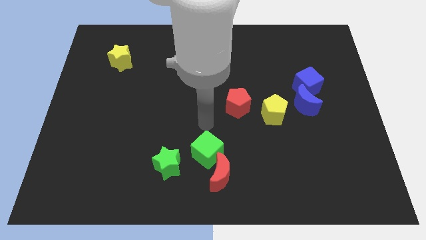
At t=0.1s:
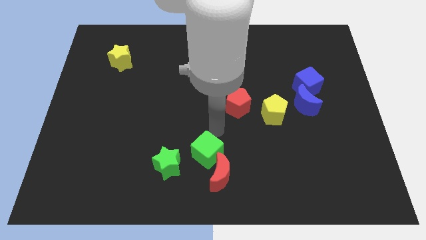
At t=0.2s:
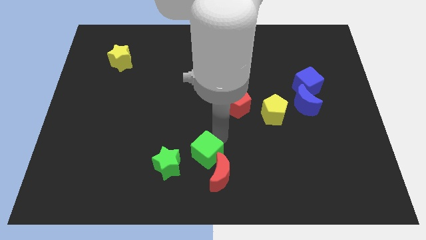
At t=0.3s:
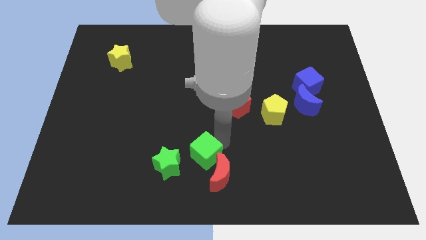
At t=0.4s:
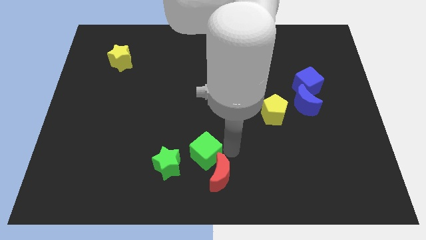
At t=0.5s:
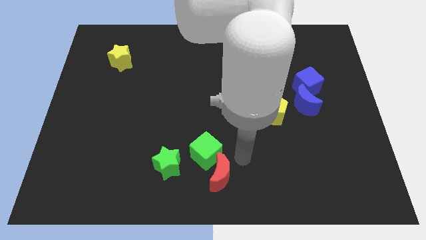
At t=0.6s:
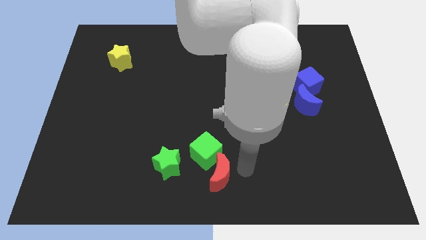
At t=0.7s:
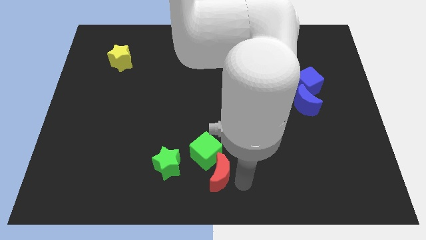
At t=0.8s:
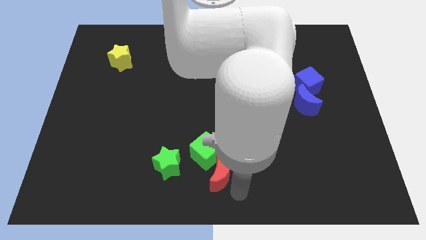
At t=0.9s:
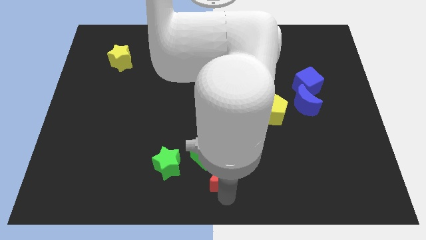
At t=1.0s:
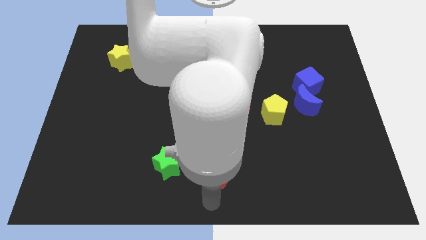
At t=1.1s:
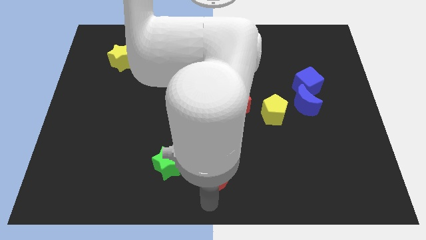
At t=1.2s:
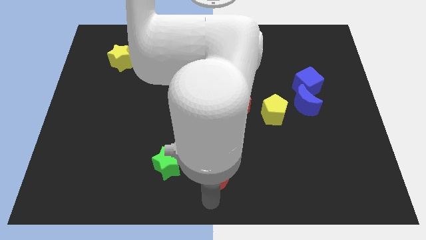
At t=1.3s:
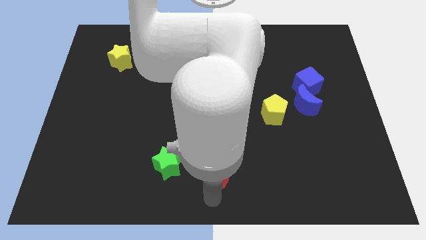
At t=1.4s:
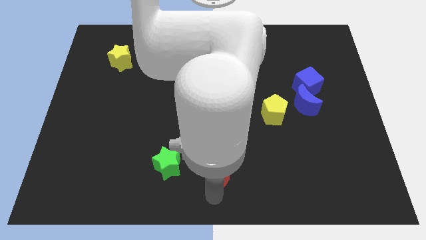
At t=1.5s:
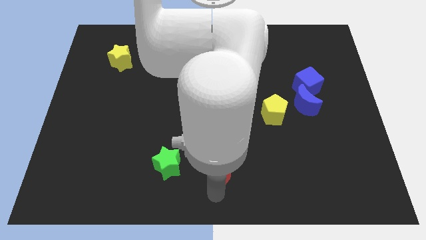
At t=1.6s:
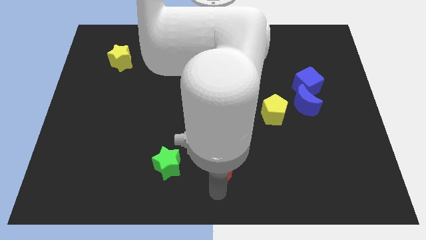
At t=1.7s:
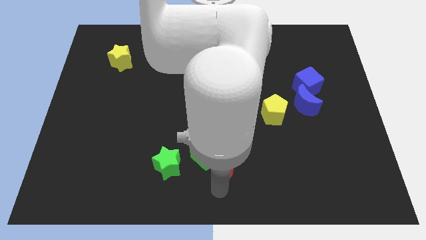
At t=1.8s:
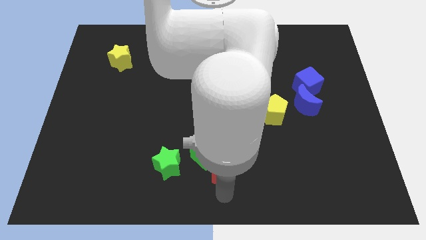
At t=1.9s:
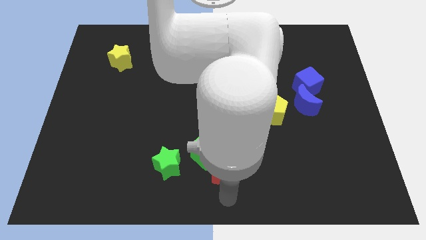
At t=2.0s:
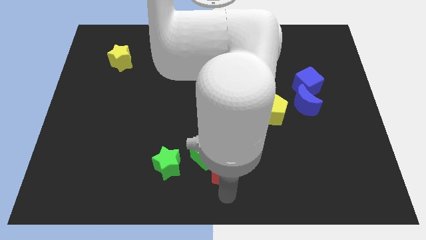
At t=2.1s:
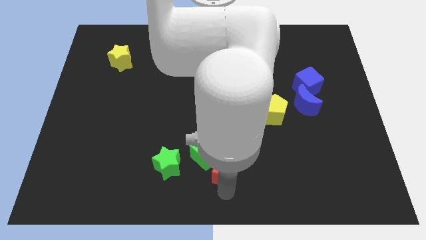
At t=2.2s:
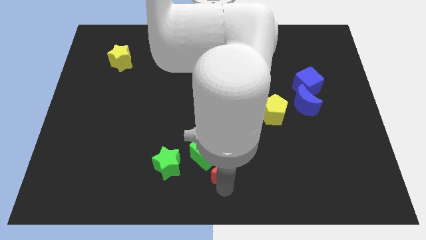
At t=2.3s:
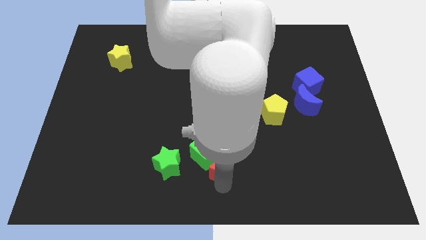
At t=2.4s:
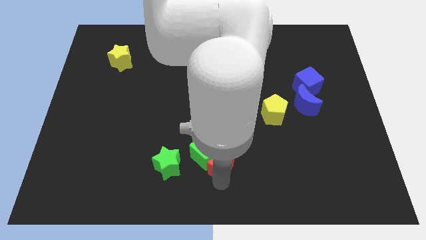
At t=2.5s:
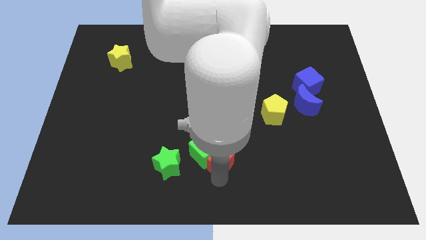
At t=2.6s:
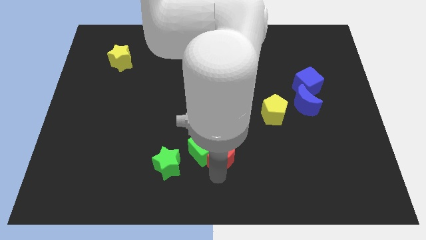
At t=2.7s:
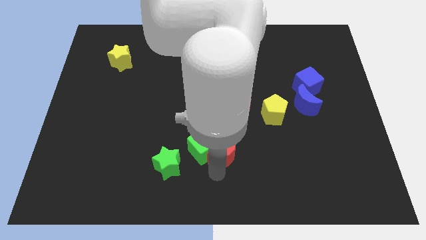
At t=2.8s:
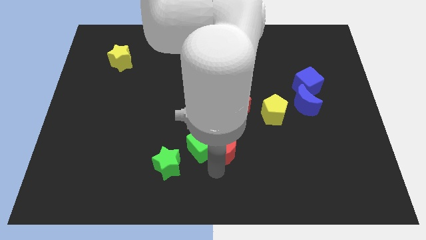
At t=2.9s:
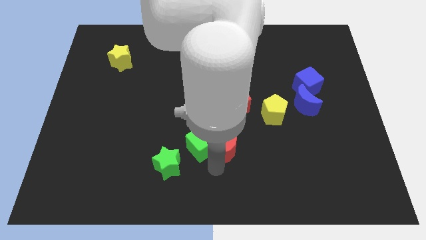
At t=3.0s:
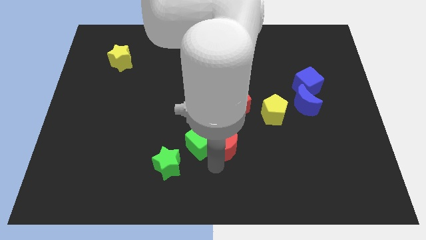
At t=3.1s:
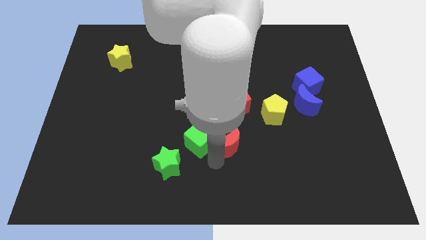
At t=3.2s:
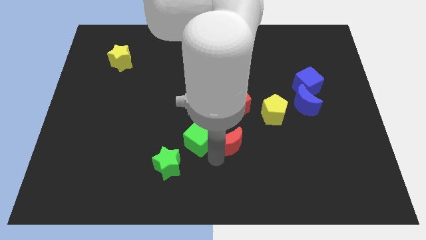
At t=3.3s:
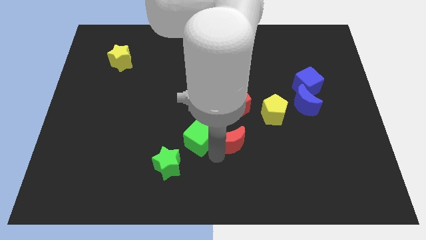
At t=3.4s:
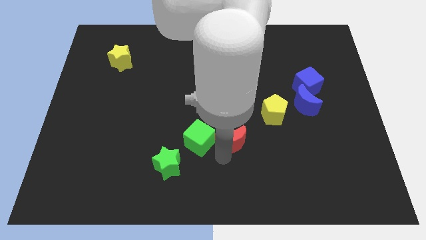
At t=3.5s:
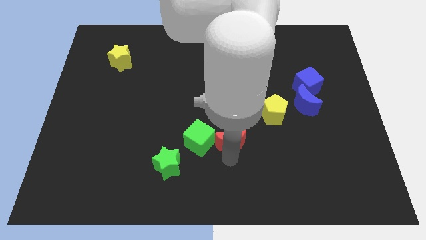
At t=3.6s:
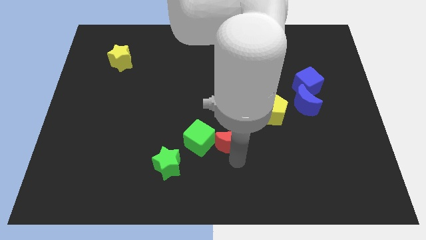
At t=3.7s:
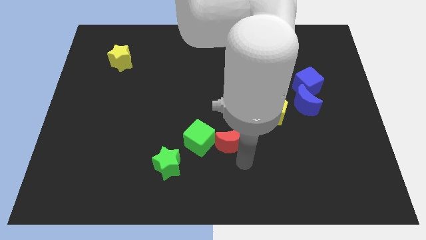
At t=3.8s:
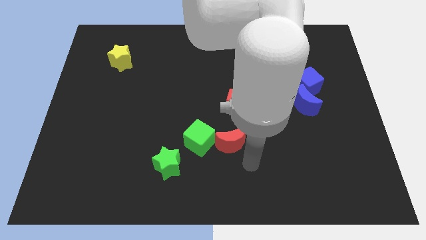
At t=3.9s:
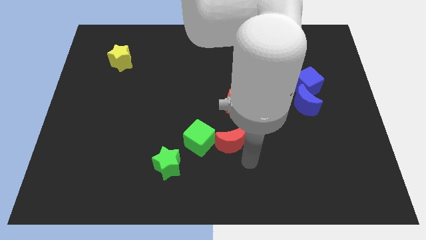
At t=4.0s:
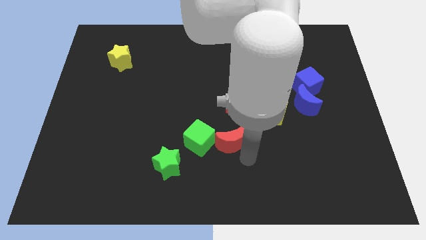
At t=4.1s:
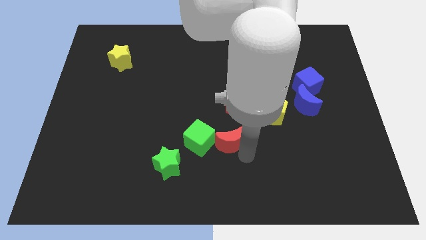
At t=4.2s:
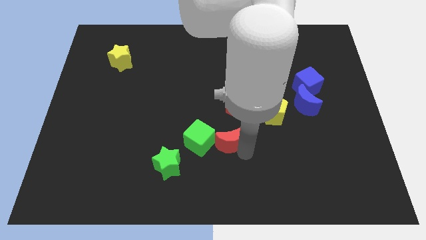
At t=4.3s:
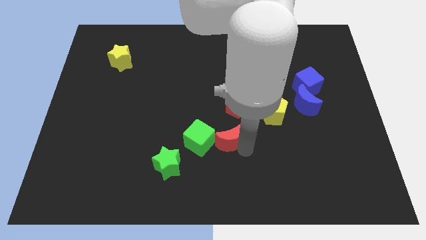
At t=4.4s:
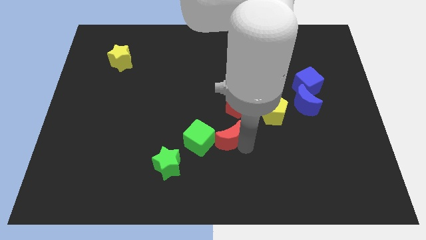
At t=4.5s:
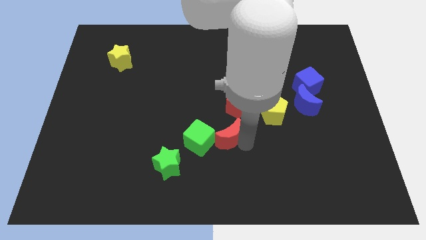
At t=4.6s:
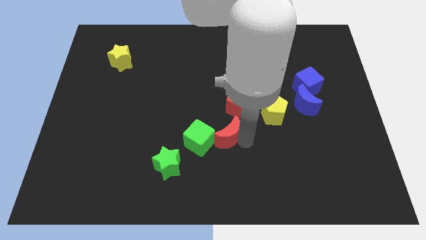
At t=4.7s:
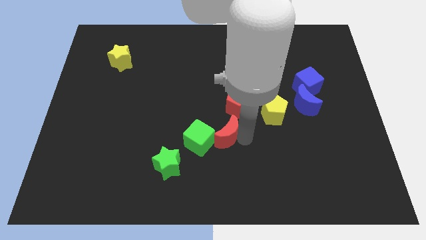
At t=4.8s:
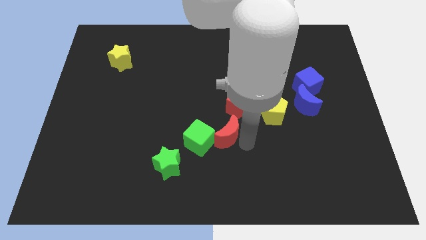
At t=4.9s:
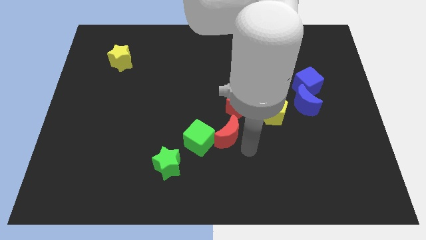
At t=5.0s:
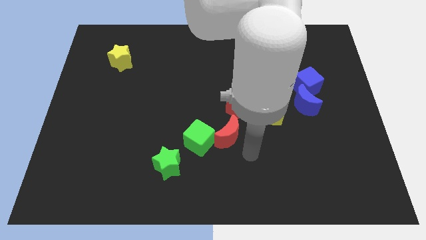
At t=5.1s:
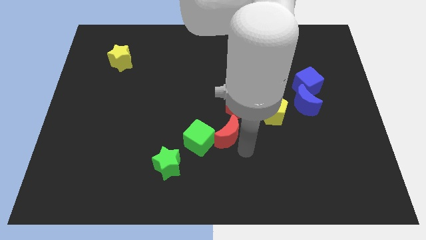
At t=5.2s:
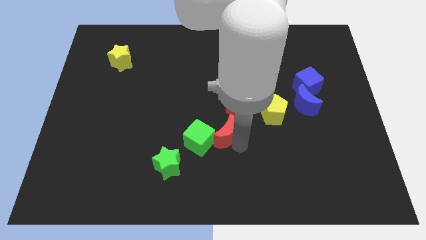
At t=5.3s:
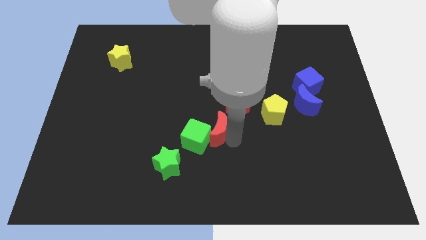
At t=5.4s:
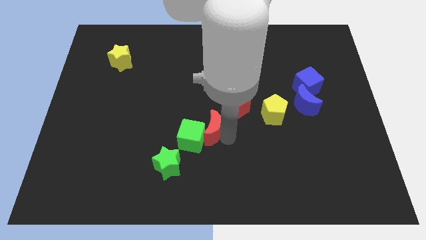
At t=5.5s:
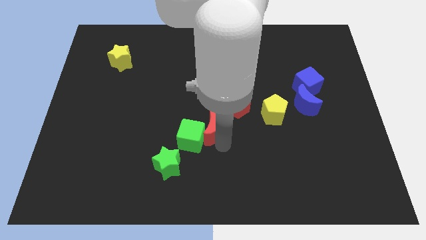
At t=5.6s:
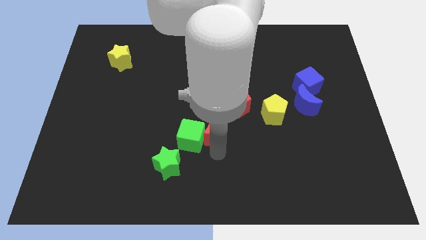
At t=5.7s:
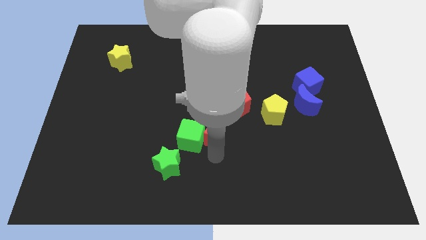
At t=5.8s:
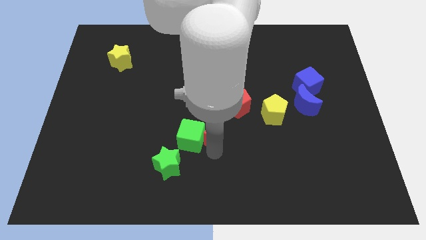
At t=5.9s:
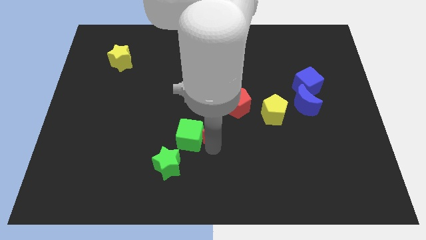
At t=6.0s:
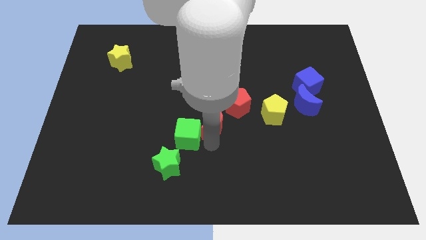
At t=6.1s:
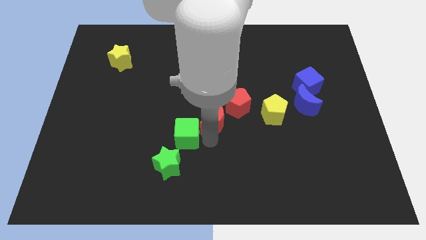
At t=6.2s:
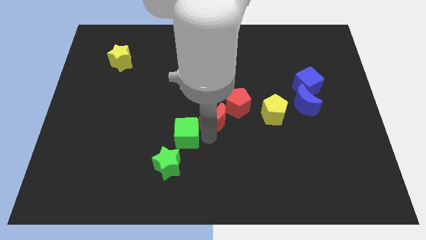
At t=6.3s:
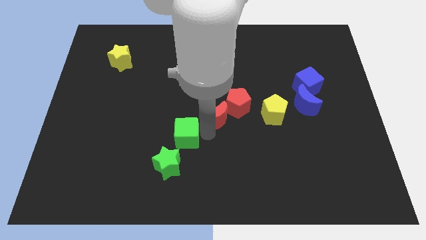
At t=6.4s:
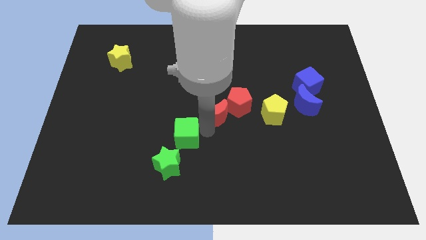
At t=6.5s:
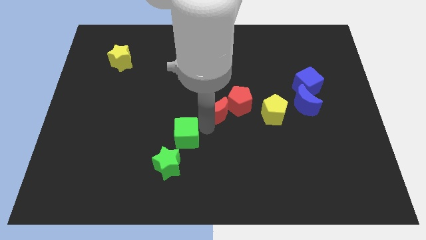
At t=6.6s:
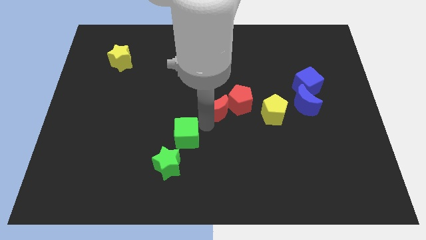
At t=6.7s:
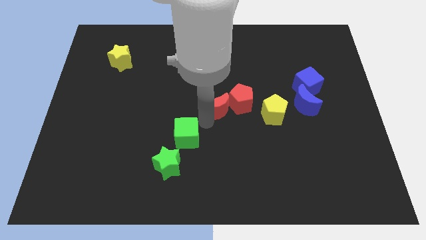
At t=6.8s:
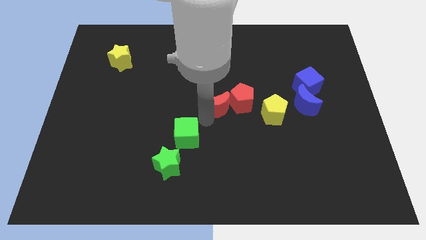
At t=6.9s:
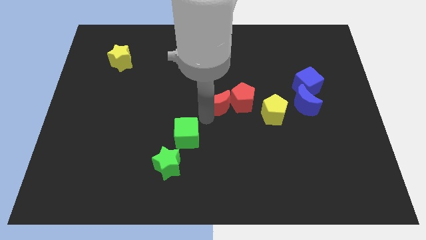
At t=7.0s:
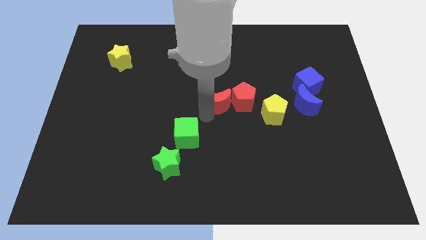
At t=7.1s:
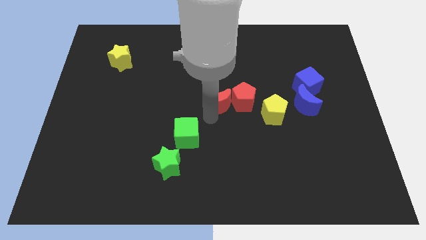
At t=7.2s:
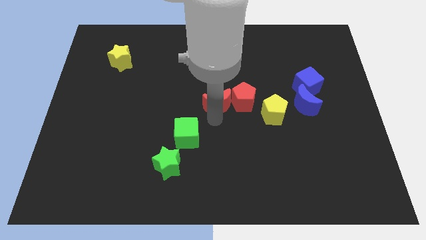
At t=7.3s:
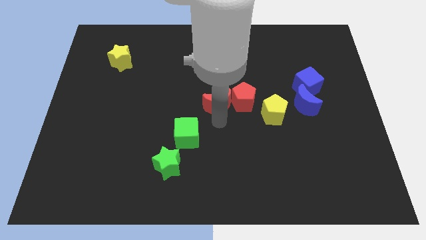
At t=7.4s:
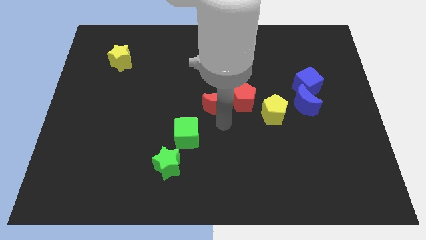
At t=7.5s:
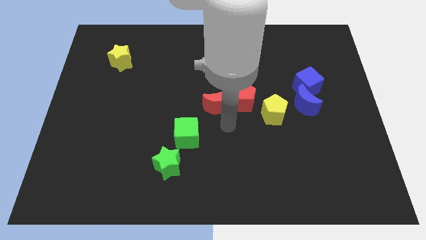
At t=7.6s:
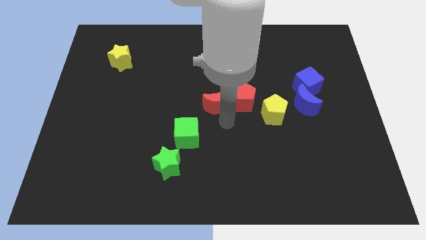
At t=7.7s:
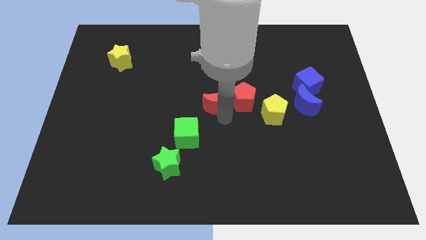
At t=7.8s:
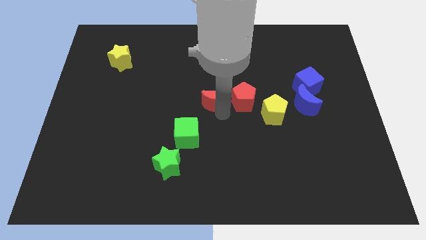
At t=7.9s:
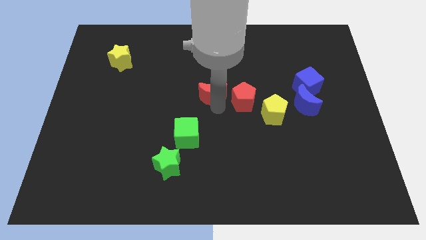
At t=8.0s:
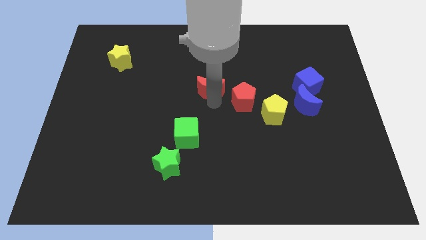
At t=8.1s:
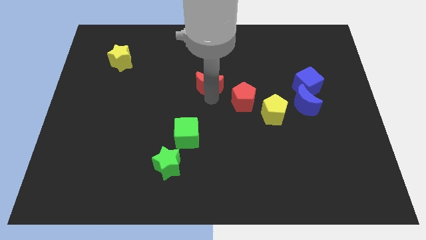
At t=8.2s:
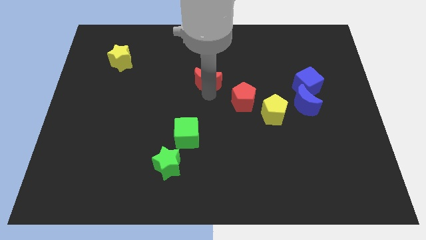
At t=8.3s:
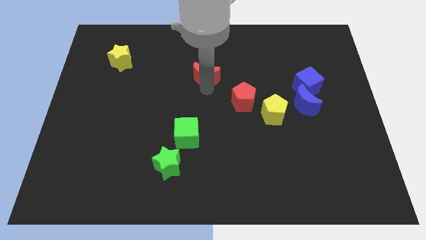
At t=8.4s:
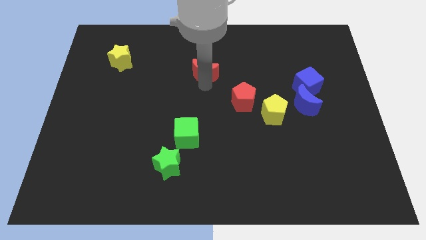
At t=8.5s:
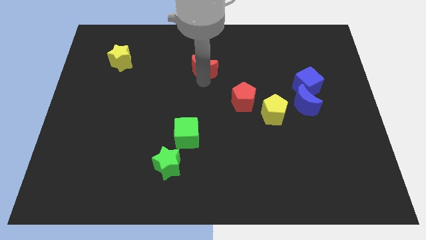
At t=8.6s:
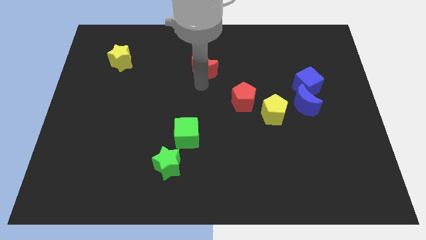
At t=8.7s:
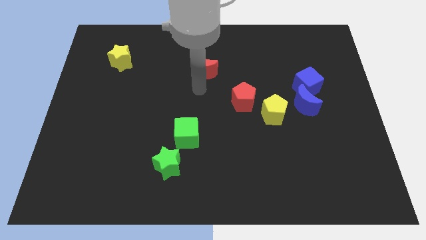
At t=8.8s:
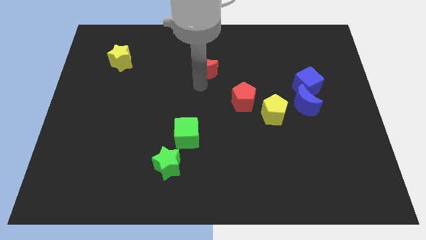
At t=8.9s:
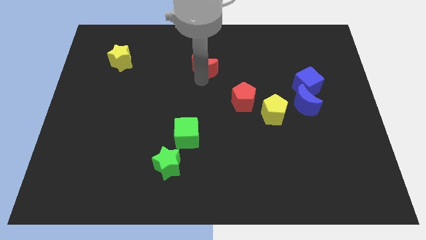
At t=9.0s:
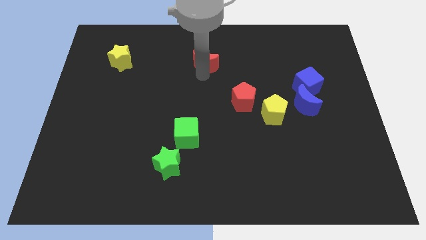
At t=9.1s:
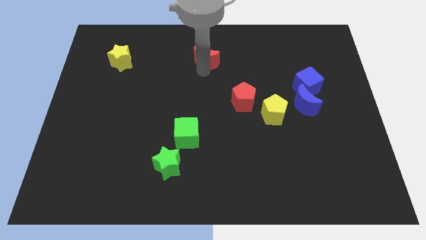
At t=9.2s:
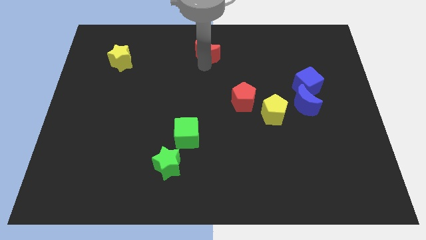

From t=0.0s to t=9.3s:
slide the red moon to the towards your base
